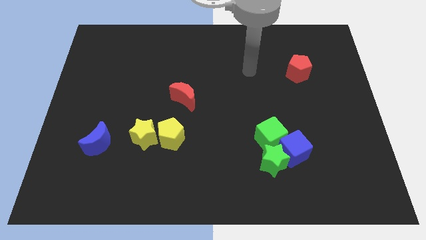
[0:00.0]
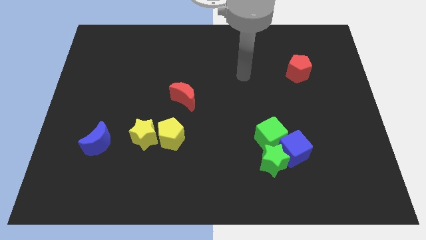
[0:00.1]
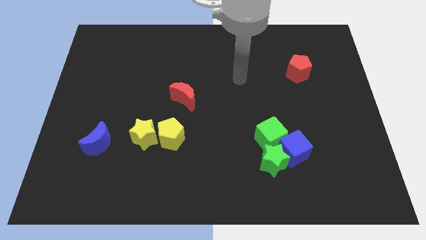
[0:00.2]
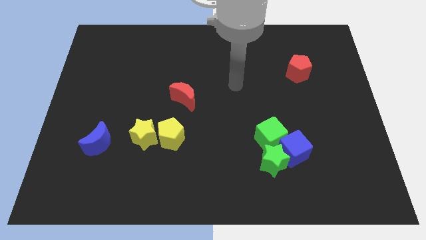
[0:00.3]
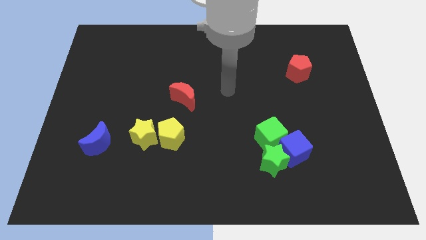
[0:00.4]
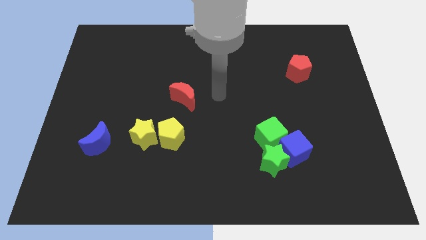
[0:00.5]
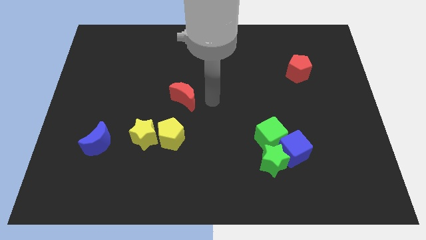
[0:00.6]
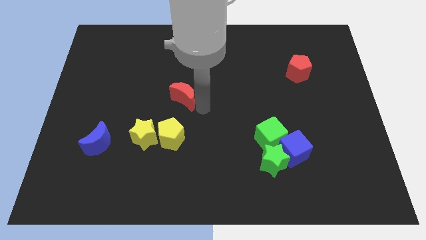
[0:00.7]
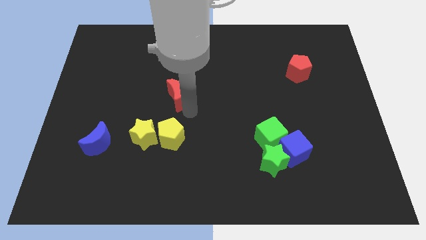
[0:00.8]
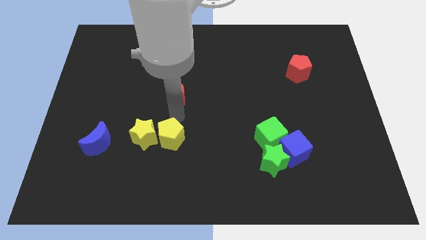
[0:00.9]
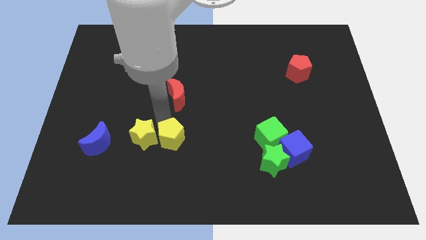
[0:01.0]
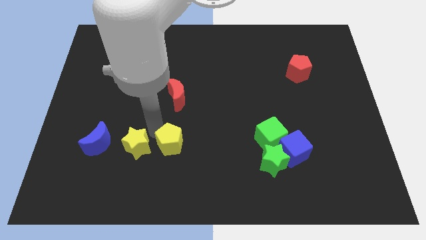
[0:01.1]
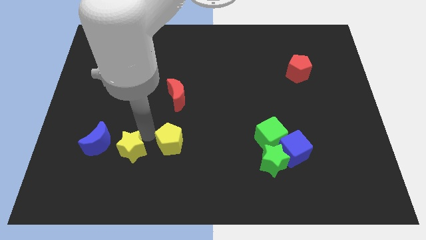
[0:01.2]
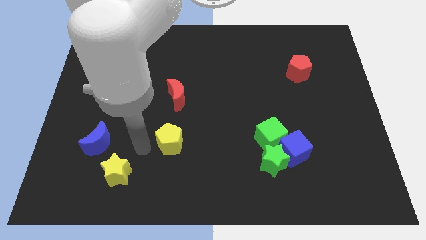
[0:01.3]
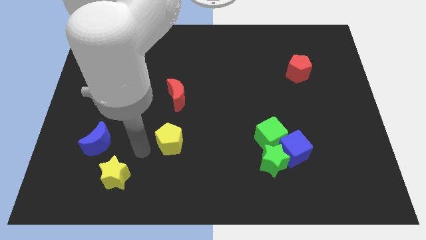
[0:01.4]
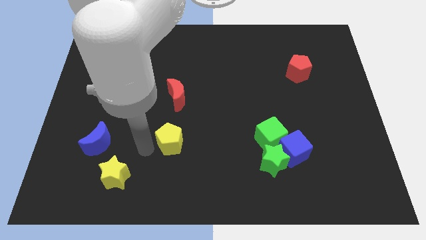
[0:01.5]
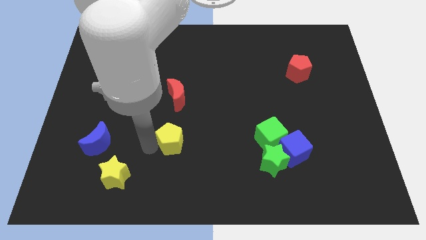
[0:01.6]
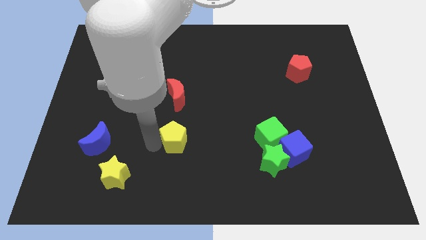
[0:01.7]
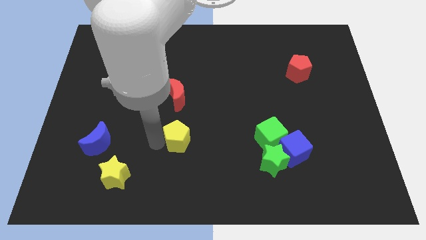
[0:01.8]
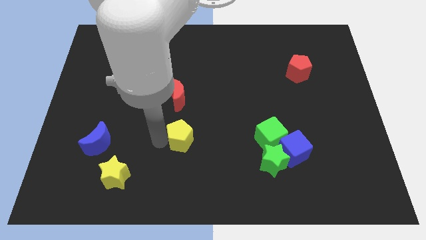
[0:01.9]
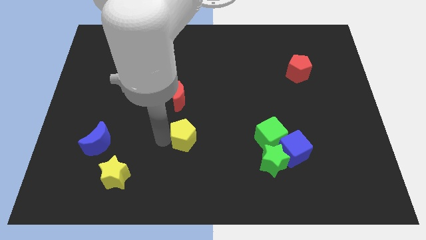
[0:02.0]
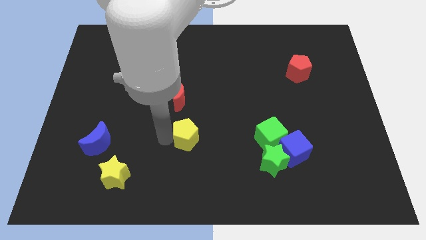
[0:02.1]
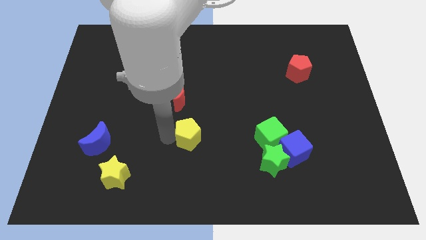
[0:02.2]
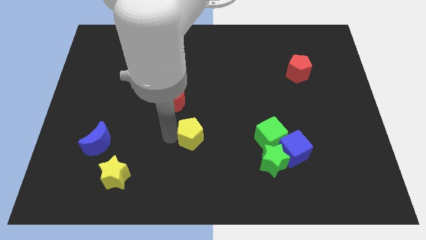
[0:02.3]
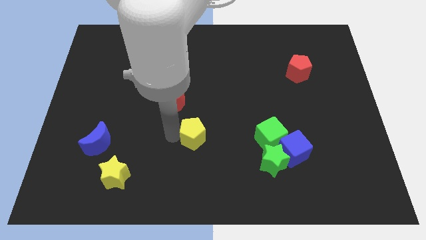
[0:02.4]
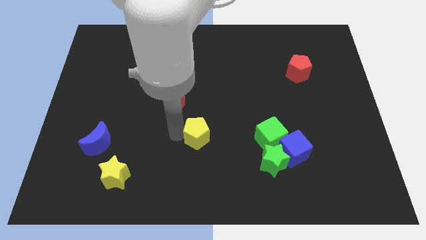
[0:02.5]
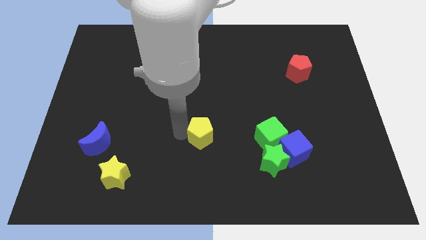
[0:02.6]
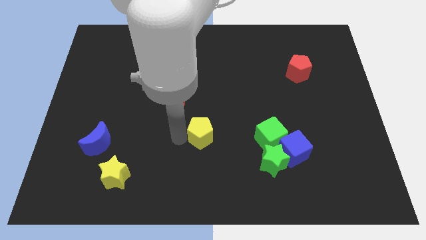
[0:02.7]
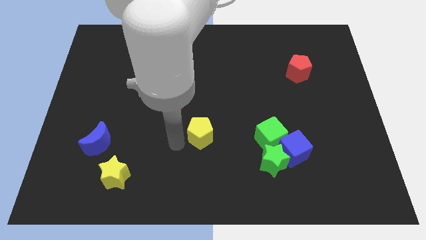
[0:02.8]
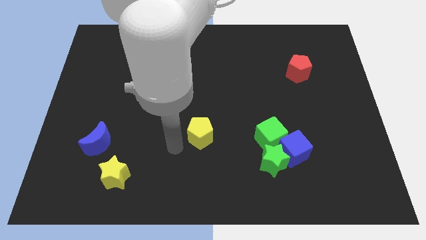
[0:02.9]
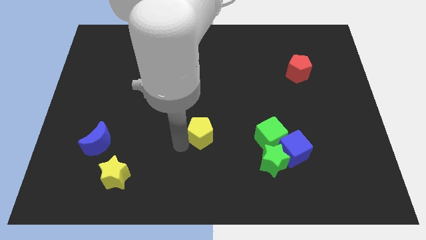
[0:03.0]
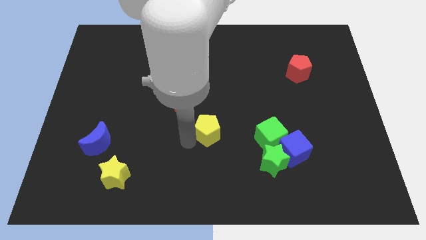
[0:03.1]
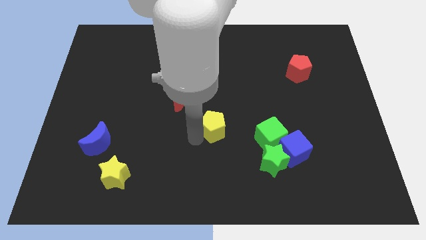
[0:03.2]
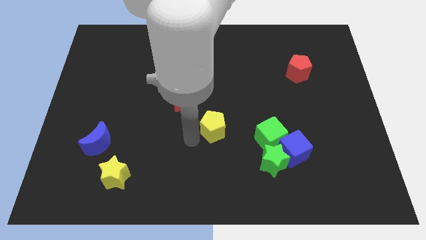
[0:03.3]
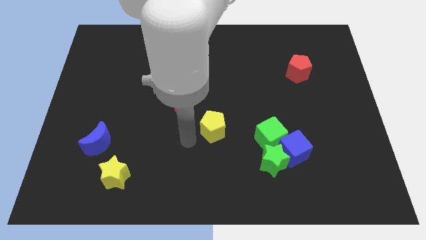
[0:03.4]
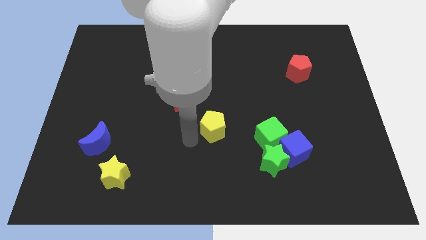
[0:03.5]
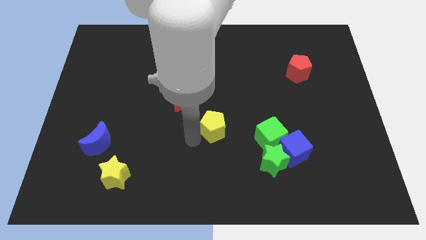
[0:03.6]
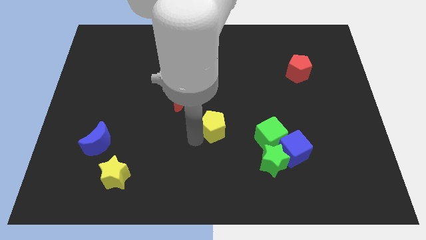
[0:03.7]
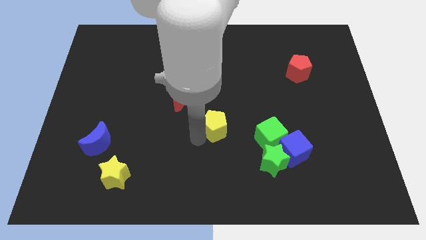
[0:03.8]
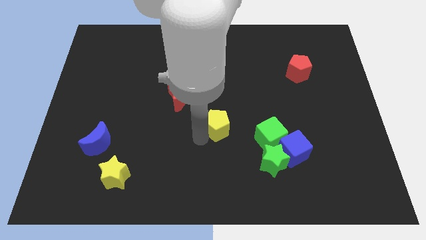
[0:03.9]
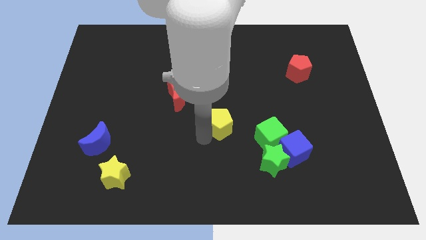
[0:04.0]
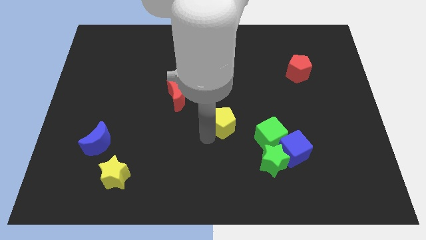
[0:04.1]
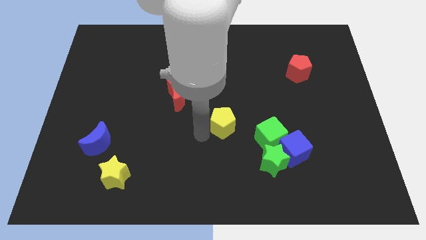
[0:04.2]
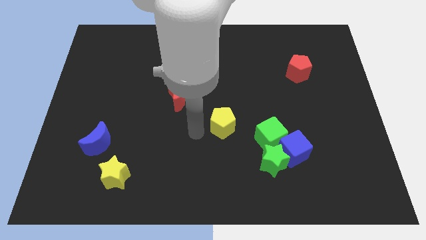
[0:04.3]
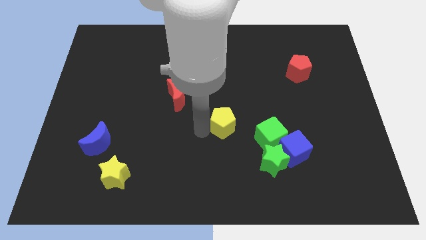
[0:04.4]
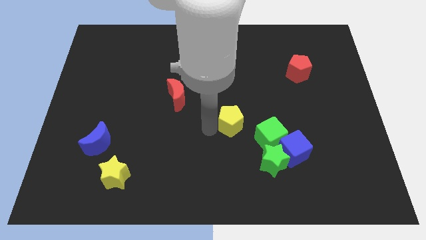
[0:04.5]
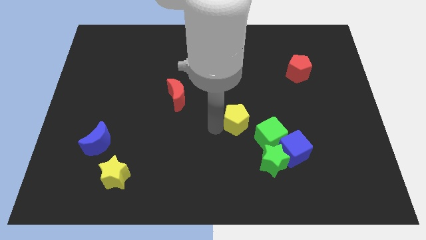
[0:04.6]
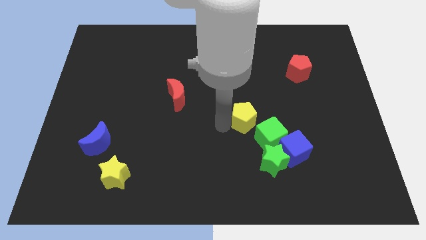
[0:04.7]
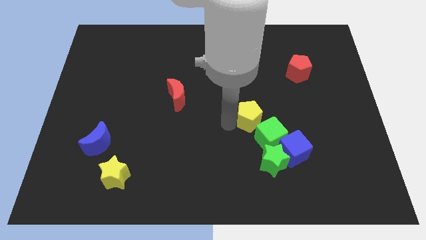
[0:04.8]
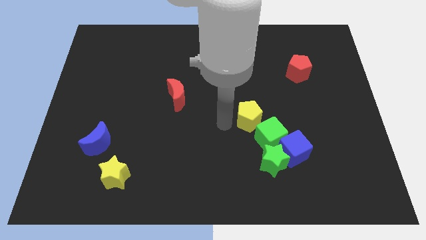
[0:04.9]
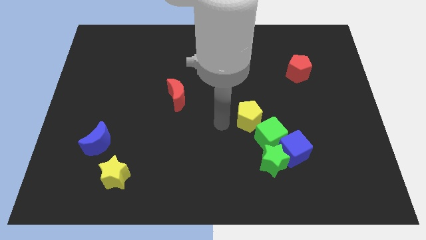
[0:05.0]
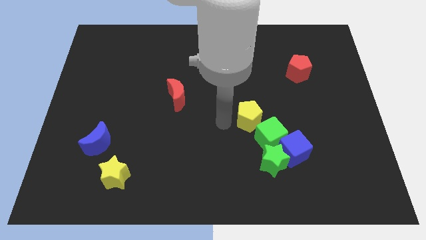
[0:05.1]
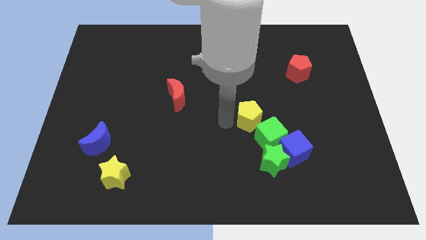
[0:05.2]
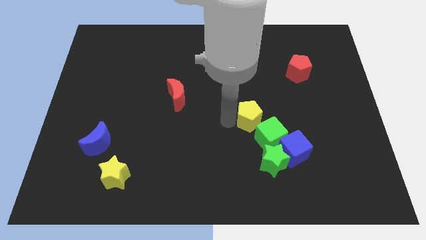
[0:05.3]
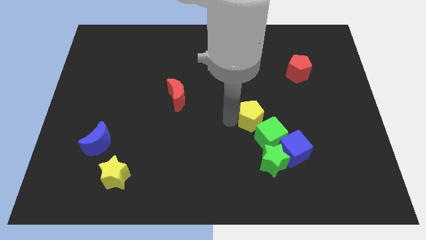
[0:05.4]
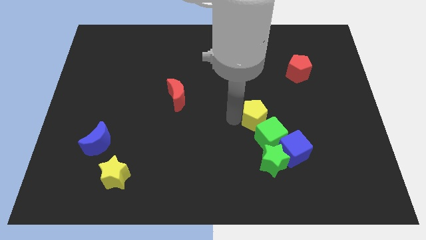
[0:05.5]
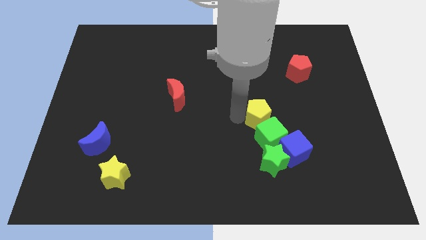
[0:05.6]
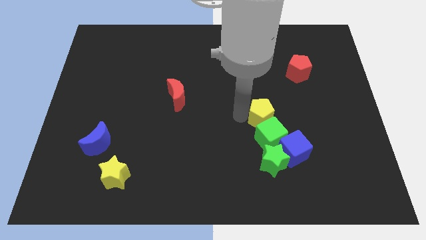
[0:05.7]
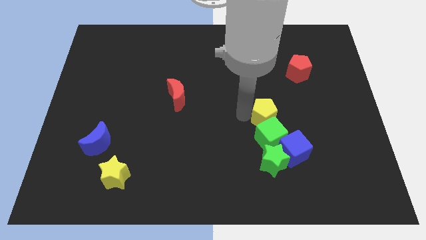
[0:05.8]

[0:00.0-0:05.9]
slide the yellow pentagon right

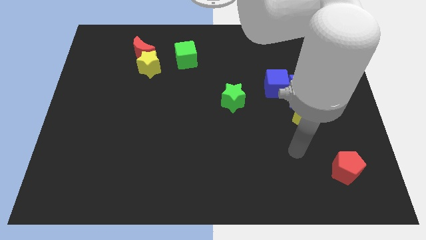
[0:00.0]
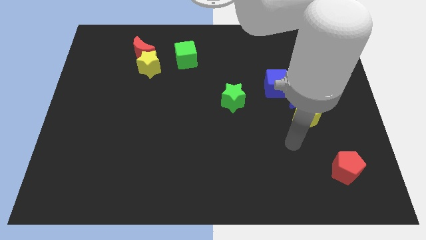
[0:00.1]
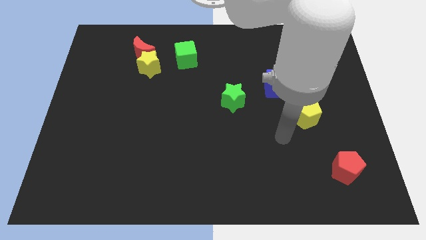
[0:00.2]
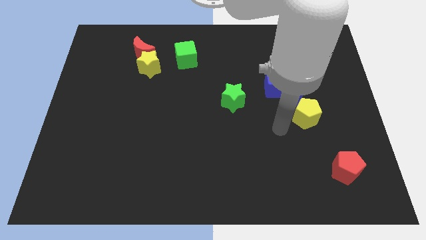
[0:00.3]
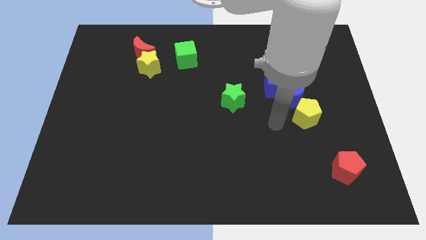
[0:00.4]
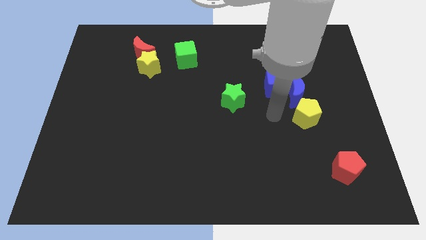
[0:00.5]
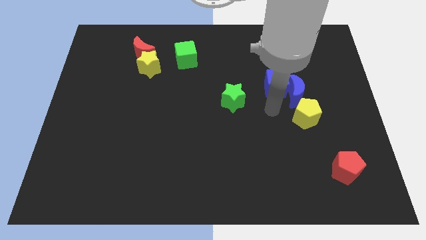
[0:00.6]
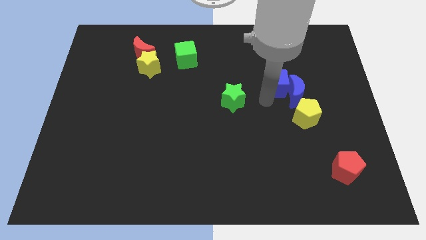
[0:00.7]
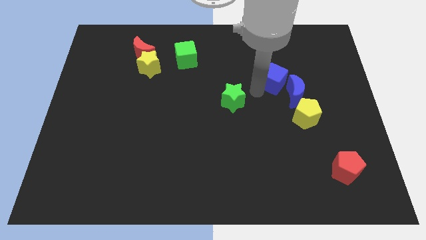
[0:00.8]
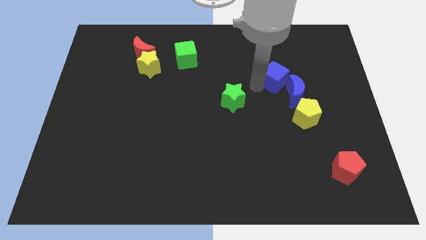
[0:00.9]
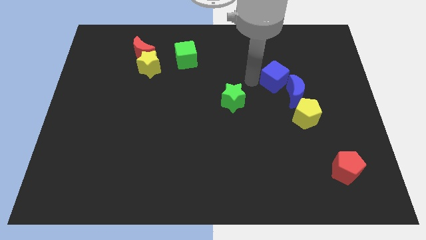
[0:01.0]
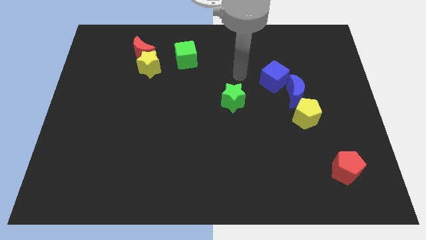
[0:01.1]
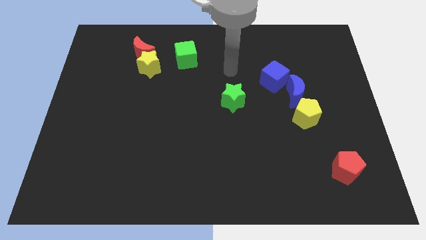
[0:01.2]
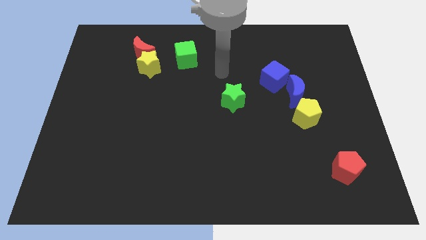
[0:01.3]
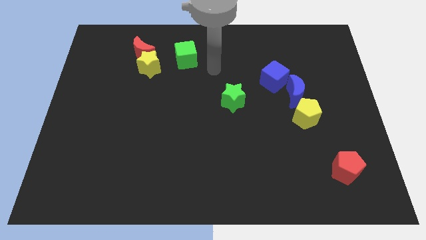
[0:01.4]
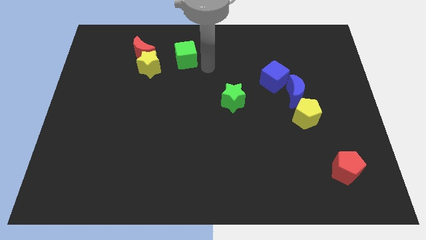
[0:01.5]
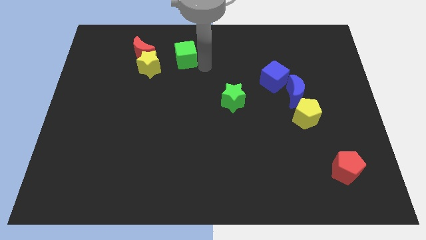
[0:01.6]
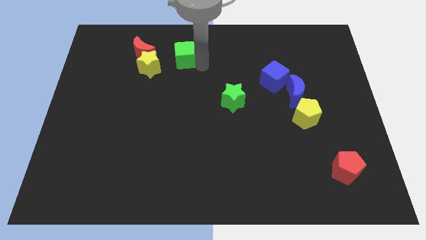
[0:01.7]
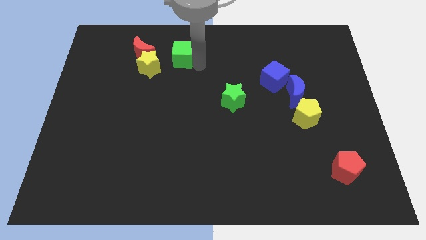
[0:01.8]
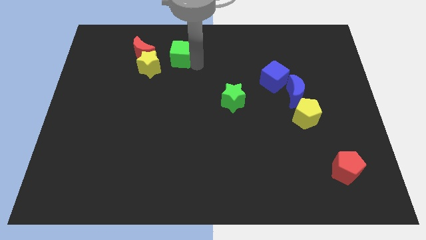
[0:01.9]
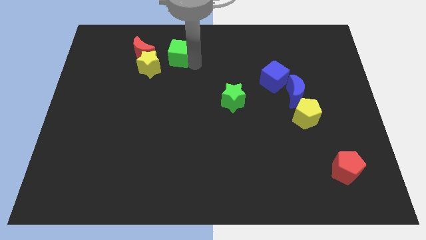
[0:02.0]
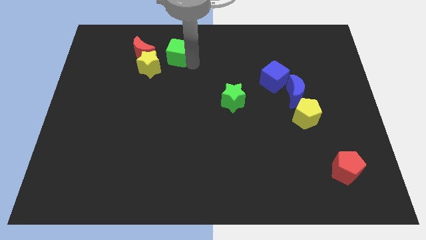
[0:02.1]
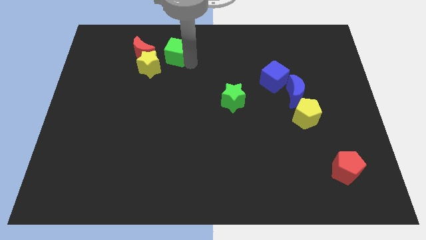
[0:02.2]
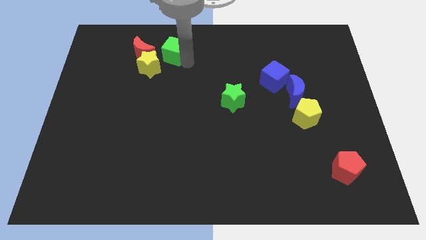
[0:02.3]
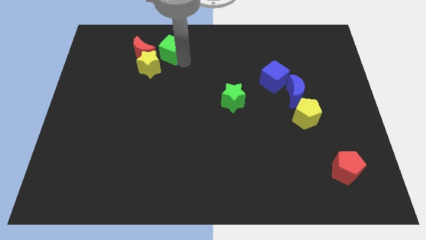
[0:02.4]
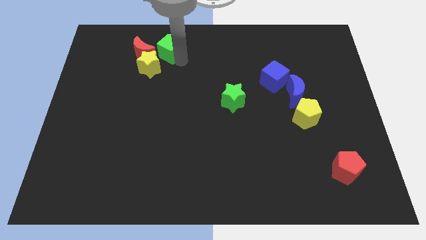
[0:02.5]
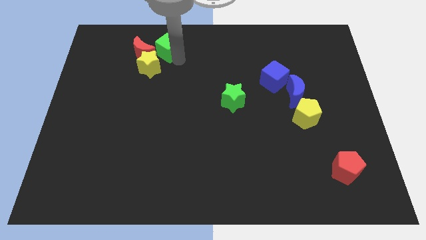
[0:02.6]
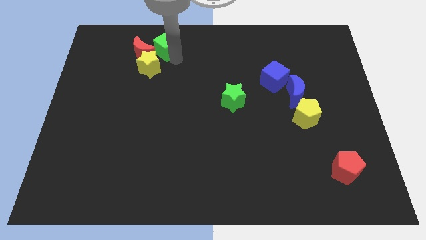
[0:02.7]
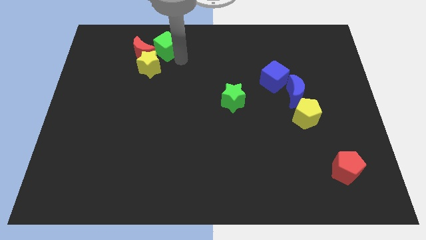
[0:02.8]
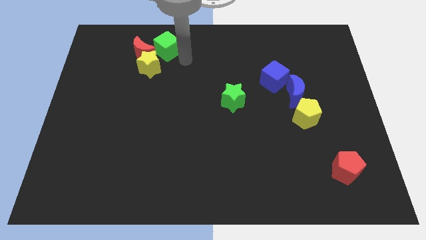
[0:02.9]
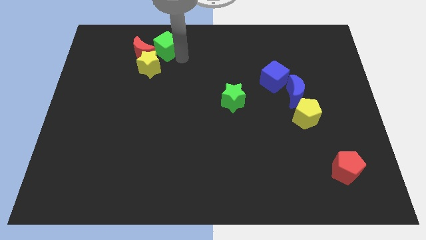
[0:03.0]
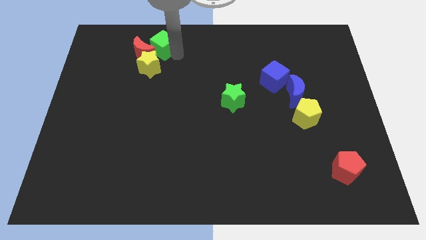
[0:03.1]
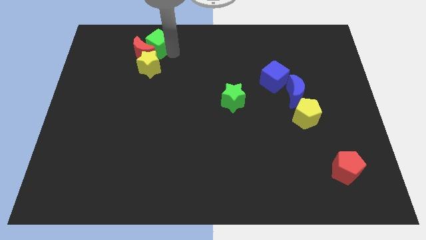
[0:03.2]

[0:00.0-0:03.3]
move the green cube a bit left
